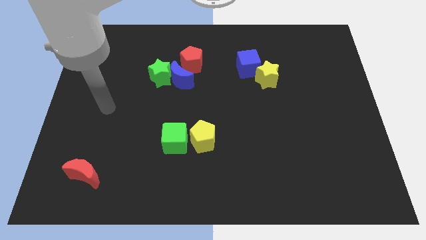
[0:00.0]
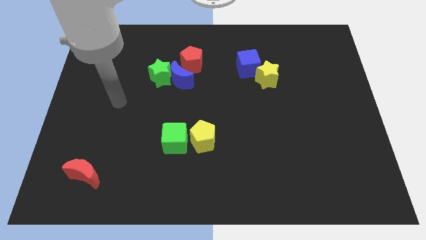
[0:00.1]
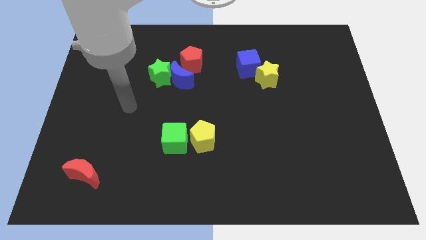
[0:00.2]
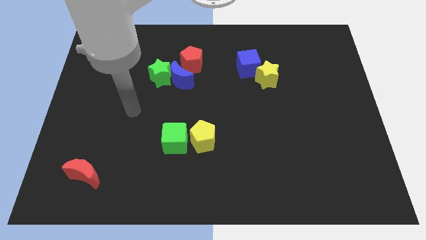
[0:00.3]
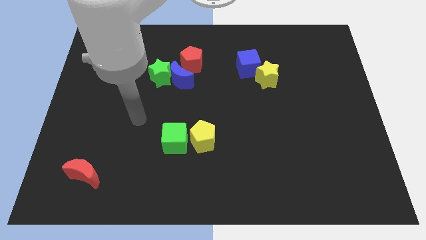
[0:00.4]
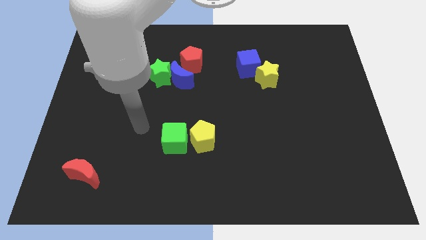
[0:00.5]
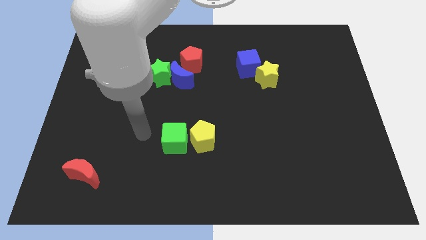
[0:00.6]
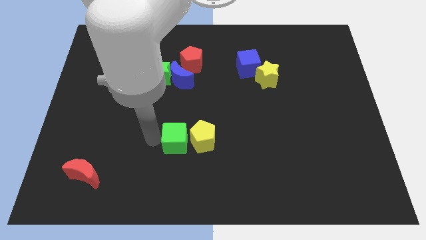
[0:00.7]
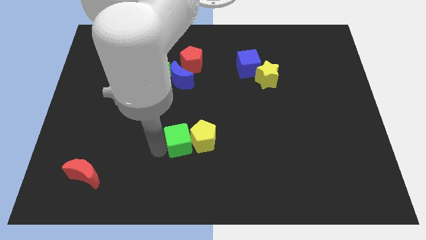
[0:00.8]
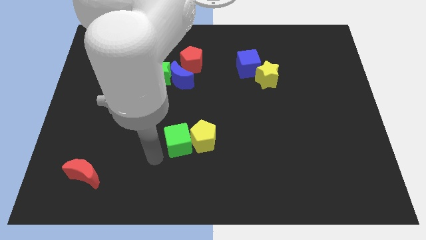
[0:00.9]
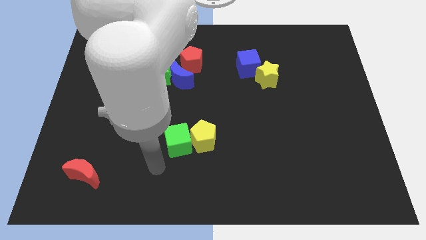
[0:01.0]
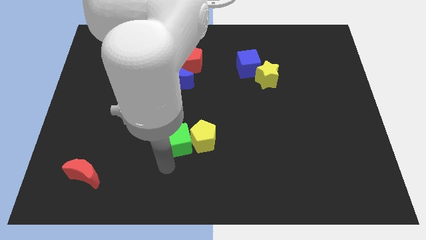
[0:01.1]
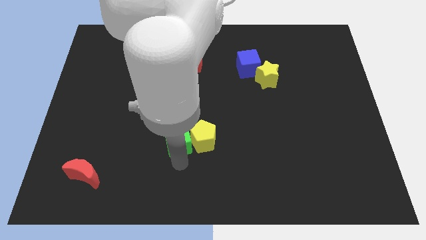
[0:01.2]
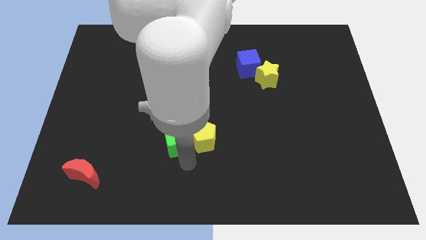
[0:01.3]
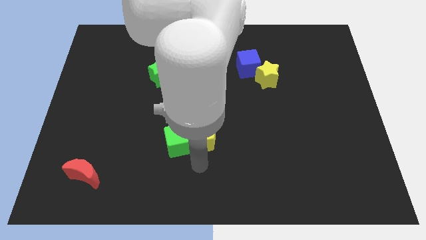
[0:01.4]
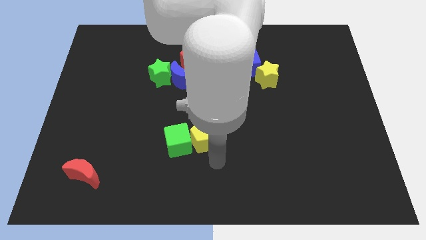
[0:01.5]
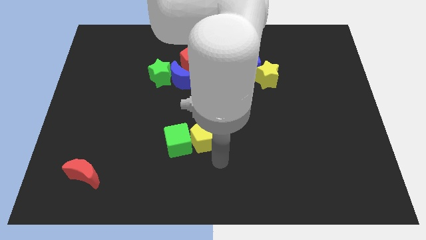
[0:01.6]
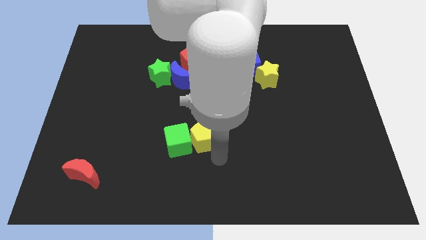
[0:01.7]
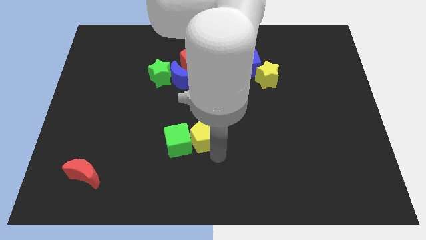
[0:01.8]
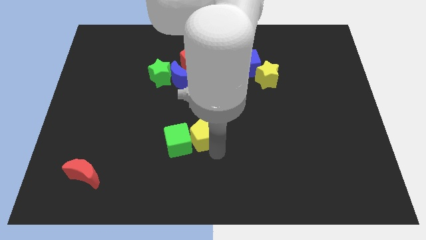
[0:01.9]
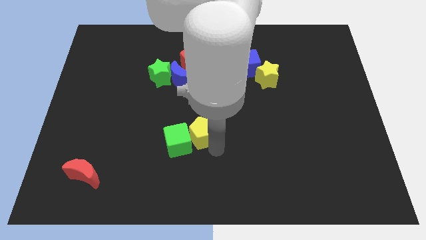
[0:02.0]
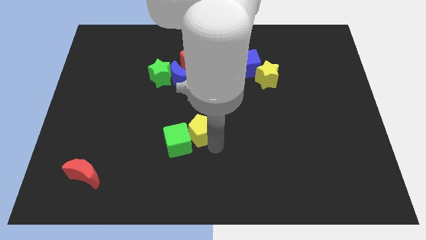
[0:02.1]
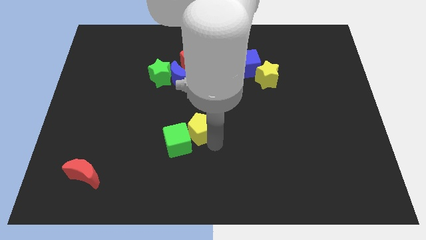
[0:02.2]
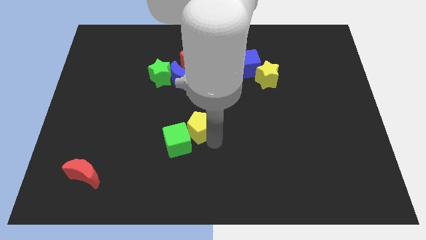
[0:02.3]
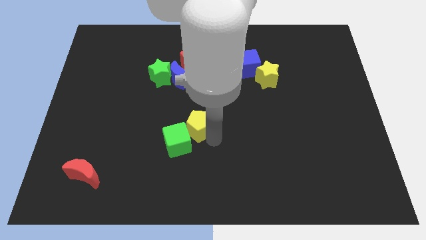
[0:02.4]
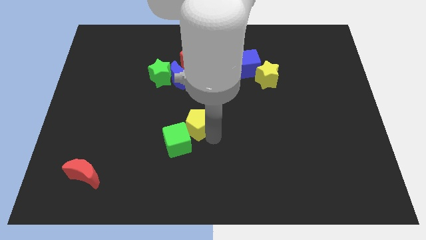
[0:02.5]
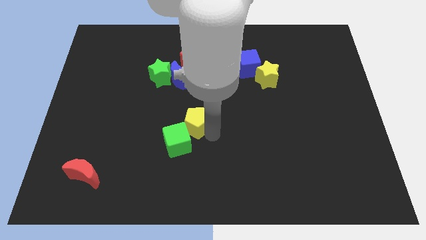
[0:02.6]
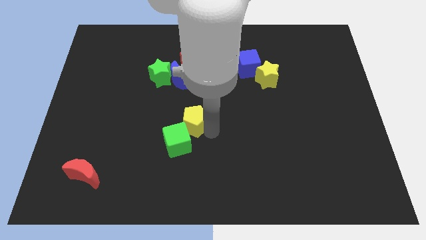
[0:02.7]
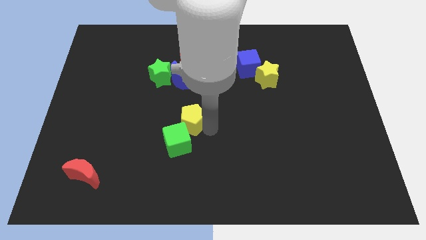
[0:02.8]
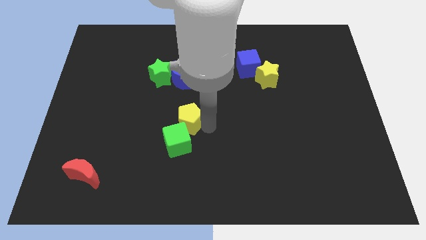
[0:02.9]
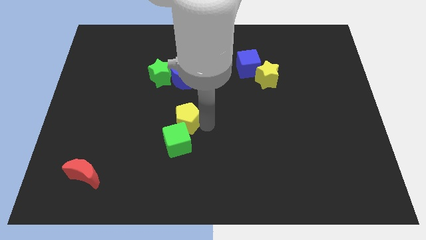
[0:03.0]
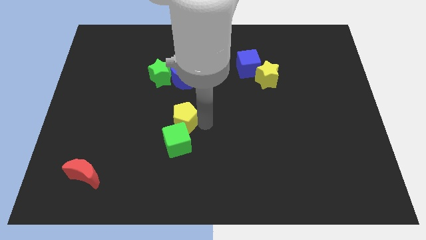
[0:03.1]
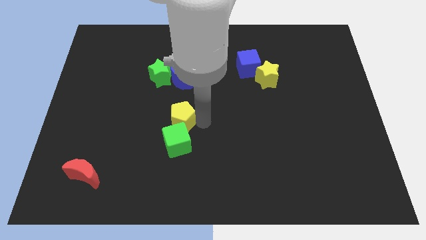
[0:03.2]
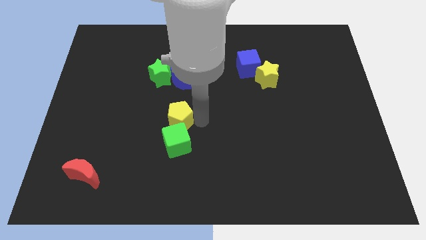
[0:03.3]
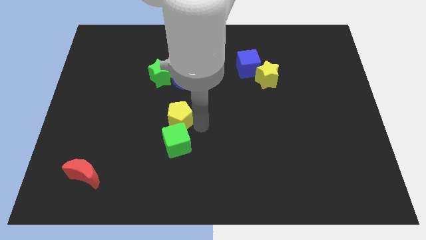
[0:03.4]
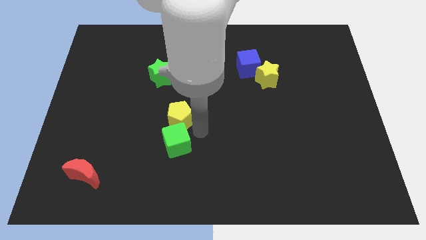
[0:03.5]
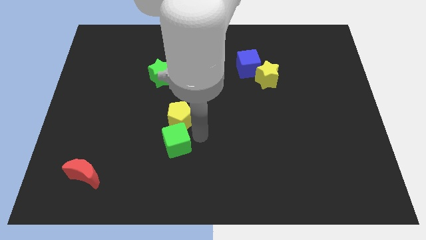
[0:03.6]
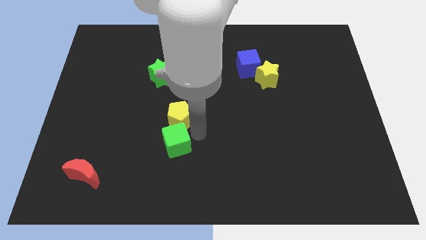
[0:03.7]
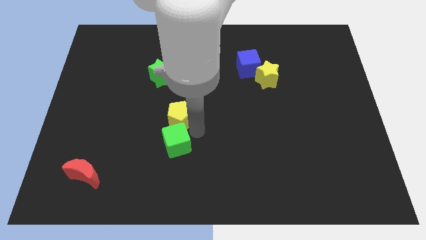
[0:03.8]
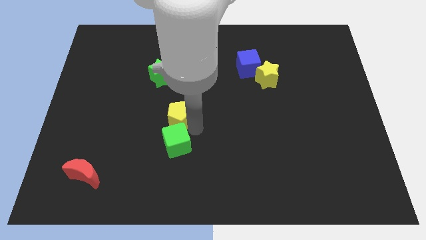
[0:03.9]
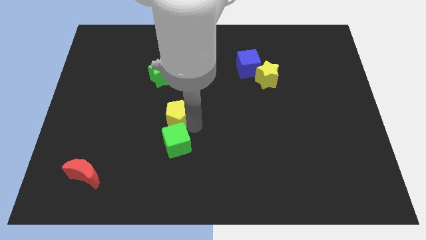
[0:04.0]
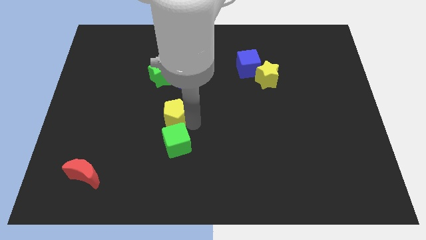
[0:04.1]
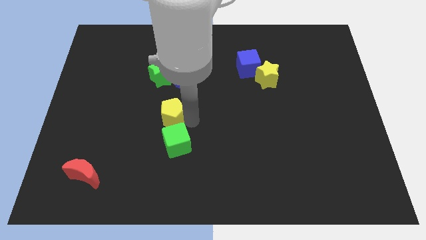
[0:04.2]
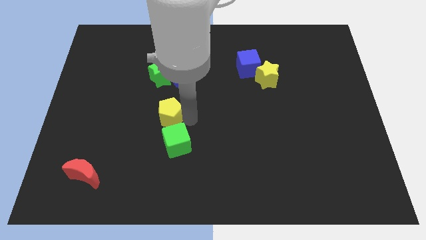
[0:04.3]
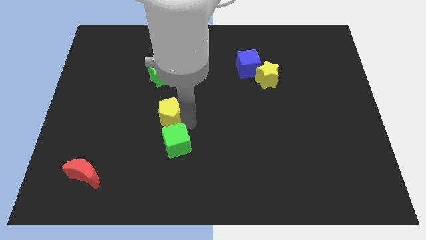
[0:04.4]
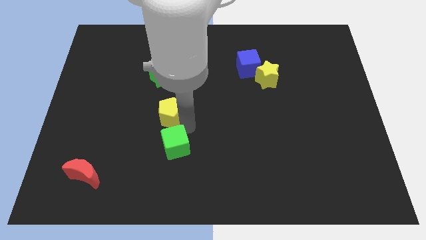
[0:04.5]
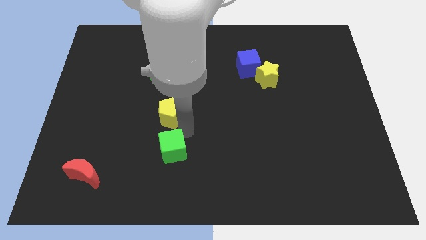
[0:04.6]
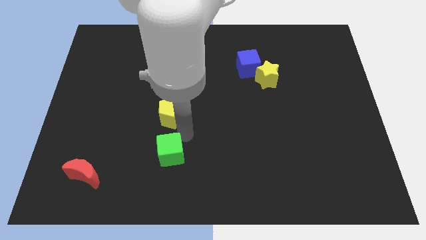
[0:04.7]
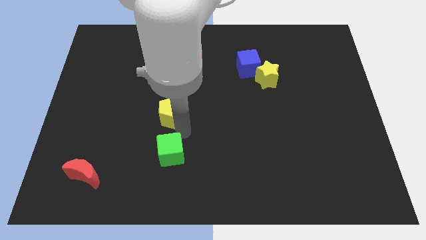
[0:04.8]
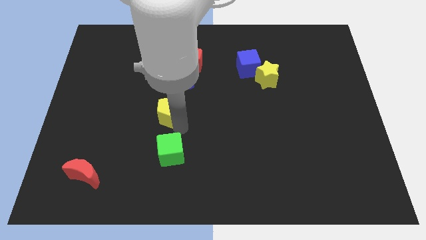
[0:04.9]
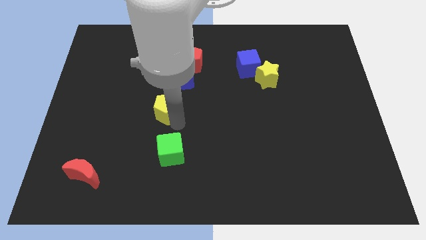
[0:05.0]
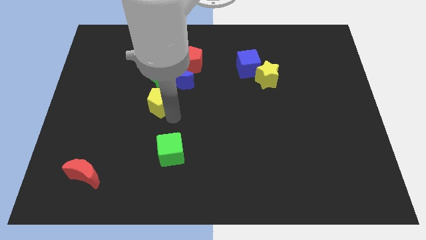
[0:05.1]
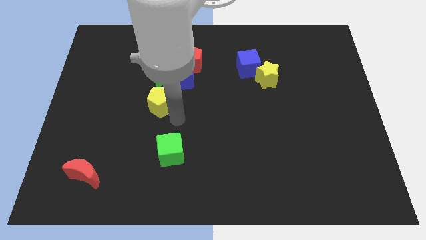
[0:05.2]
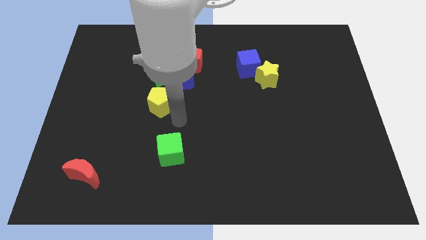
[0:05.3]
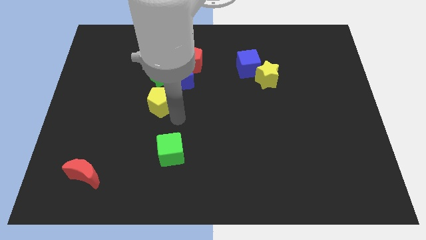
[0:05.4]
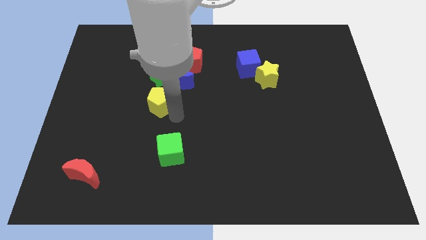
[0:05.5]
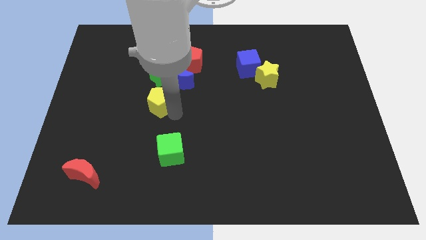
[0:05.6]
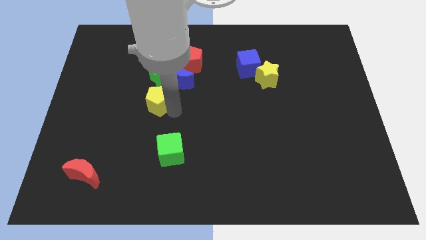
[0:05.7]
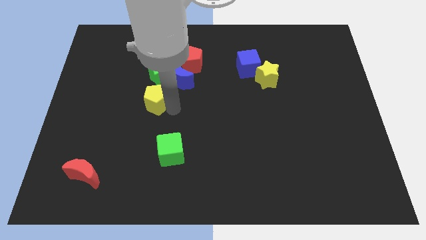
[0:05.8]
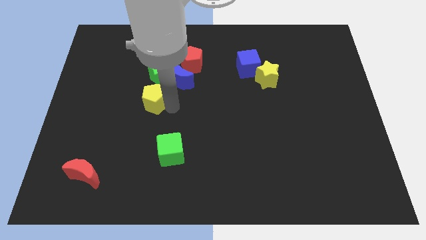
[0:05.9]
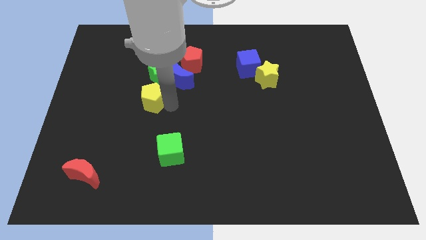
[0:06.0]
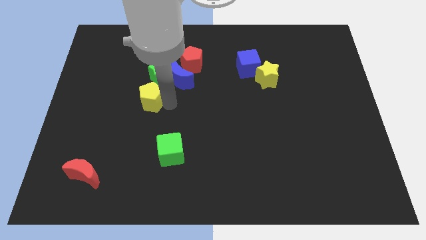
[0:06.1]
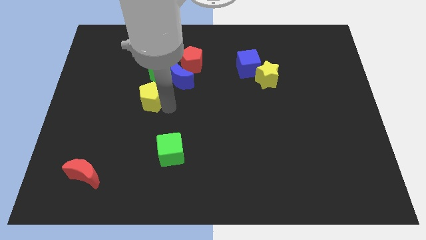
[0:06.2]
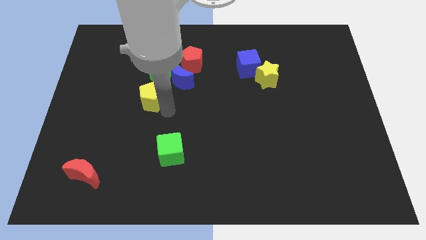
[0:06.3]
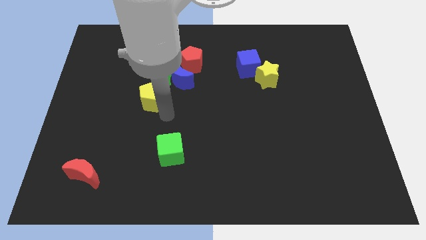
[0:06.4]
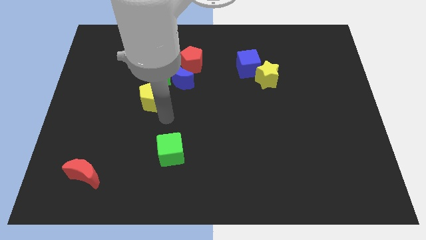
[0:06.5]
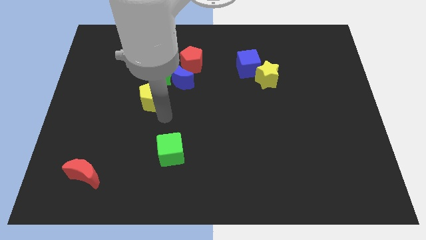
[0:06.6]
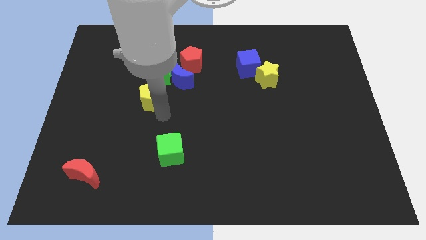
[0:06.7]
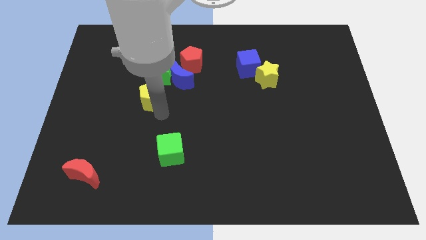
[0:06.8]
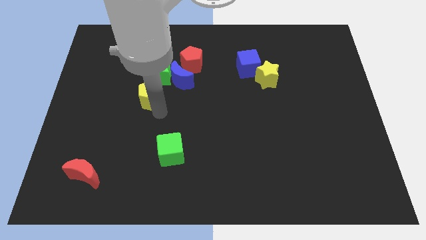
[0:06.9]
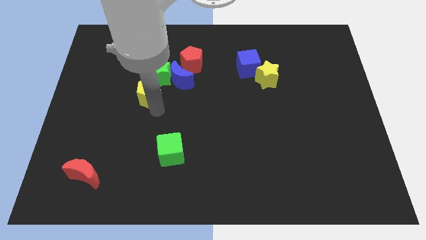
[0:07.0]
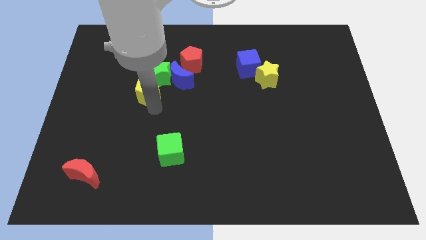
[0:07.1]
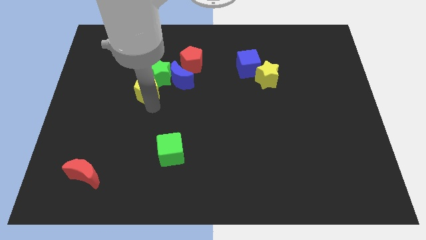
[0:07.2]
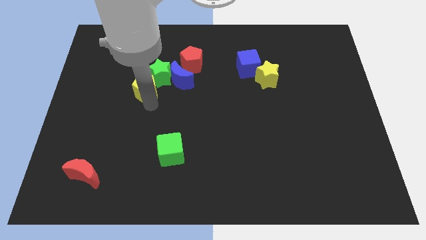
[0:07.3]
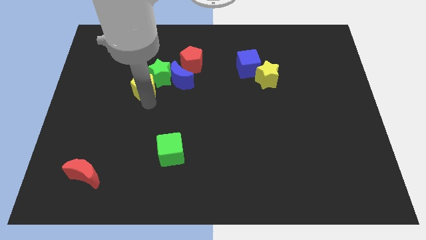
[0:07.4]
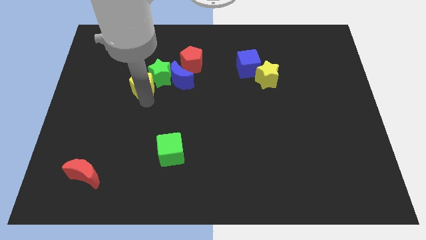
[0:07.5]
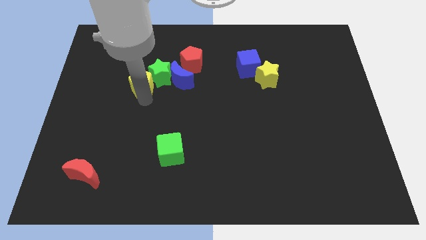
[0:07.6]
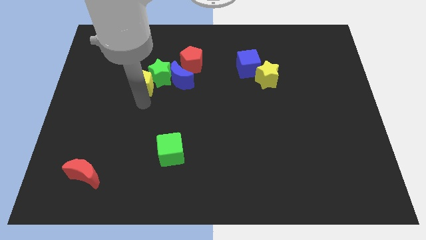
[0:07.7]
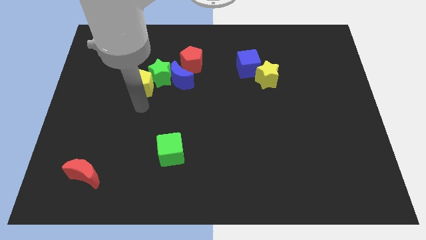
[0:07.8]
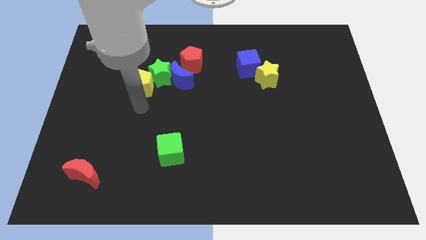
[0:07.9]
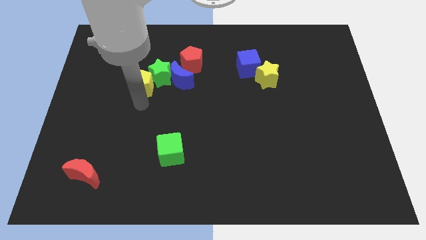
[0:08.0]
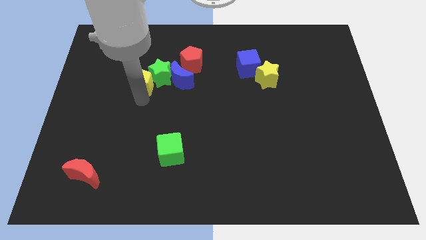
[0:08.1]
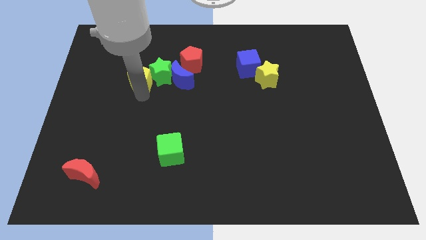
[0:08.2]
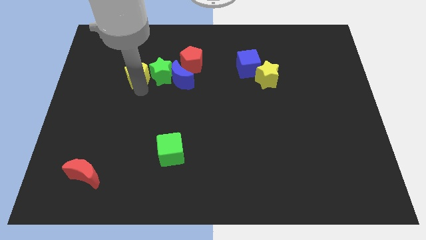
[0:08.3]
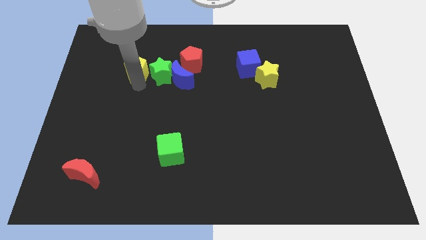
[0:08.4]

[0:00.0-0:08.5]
push the yellow pentagon to the left side of the red pentagon
